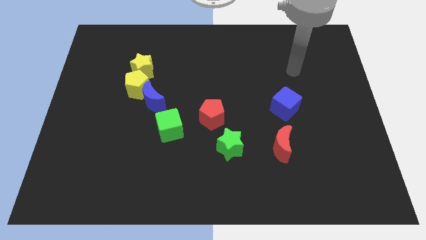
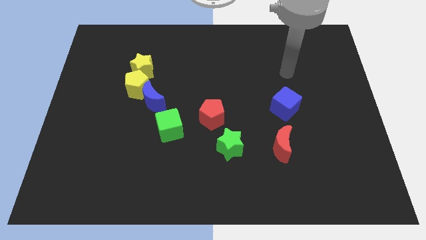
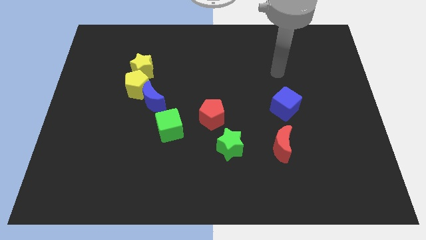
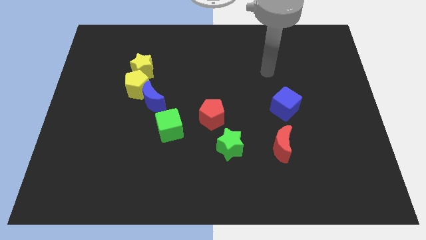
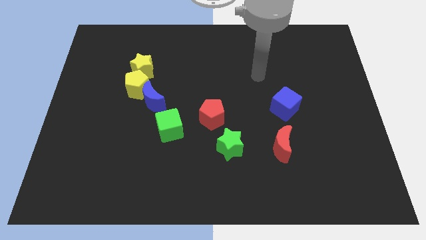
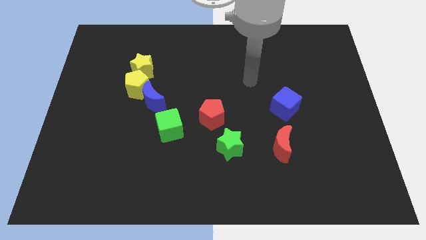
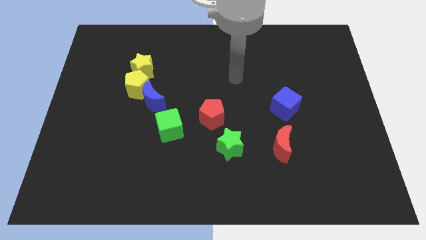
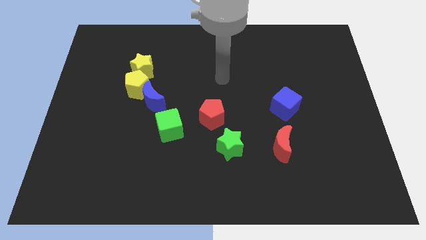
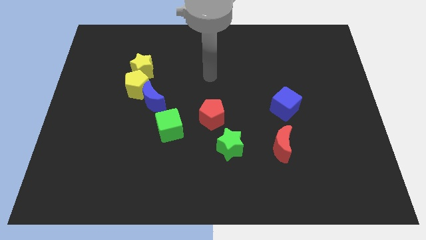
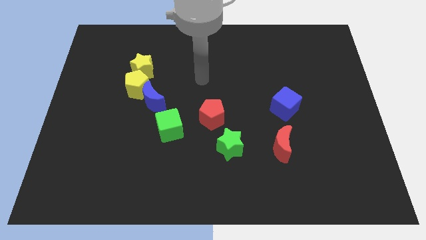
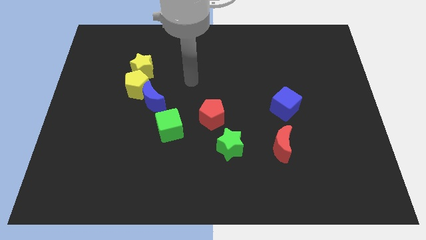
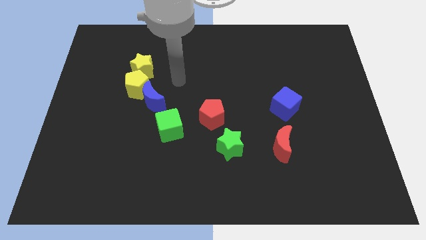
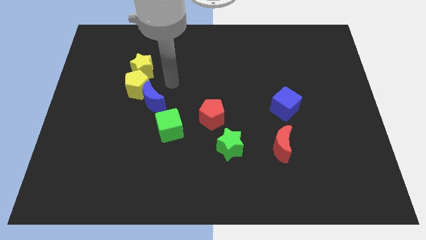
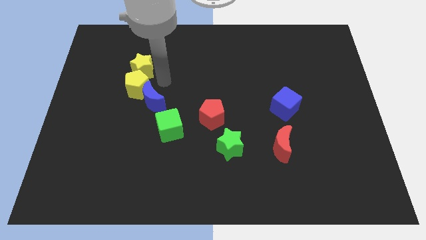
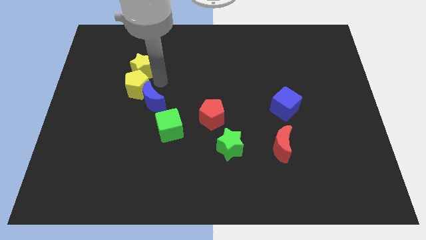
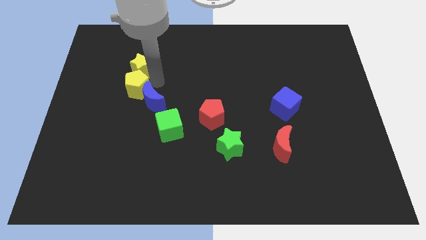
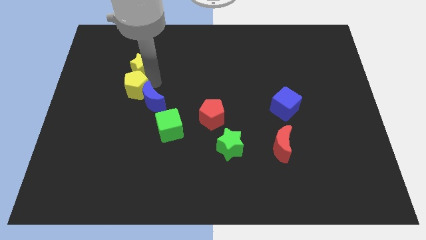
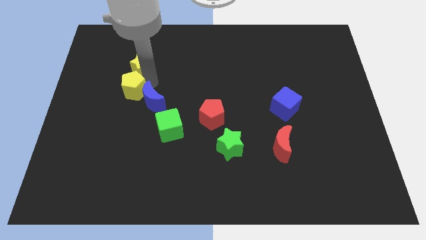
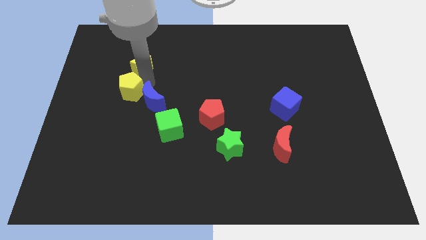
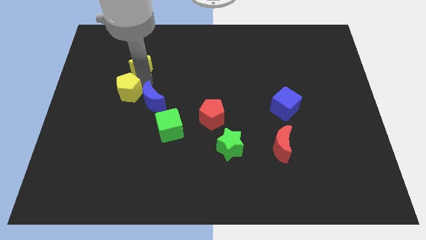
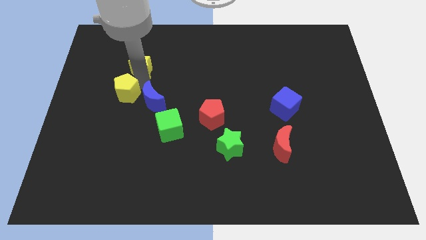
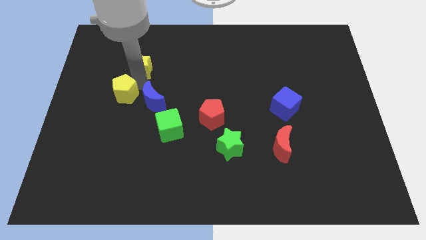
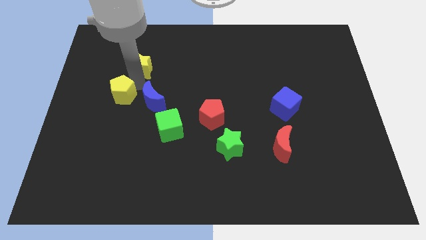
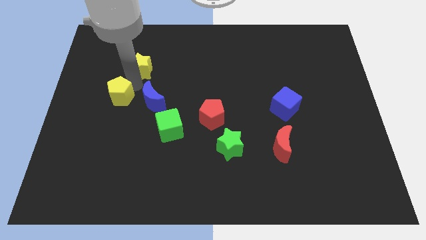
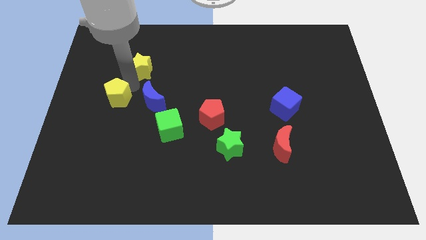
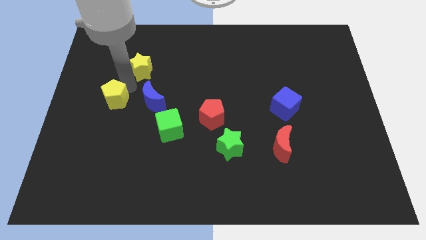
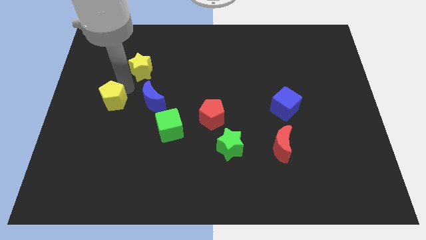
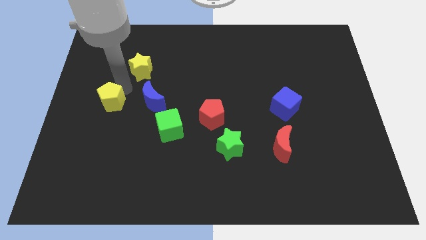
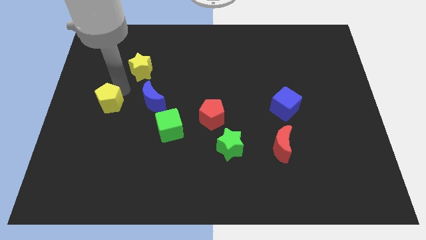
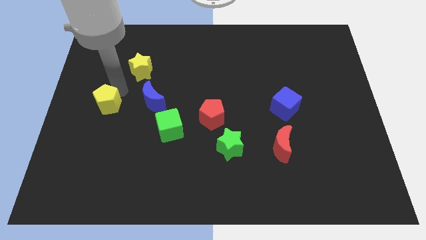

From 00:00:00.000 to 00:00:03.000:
separate the yellow pentagon from the blue moon and yellow star

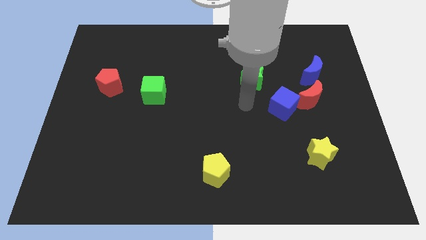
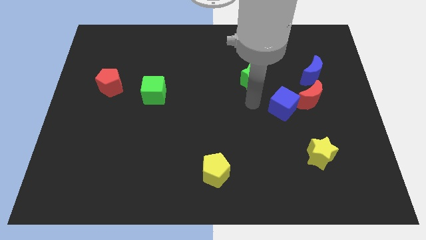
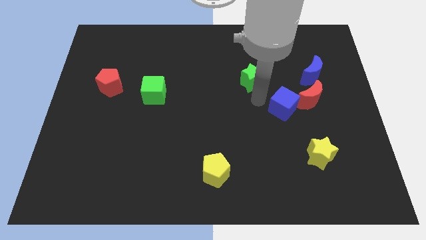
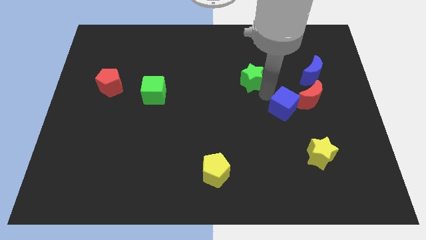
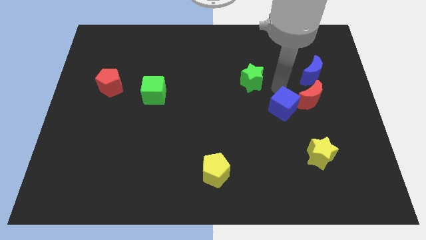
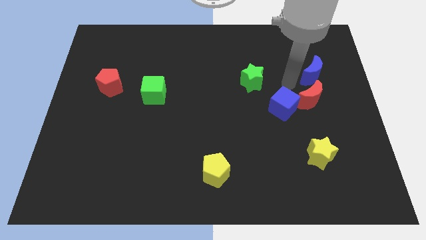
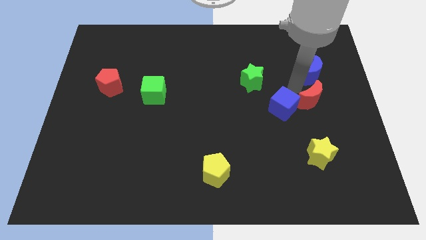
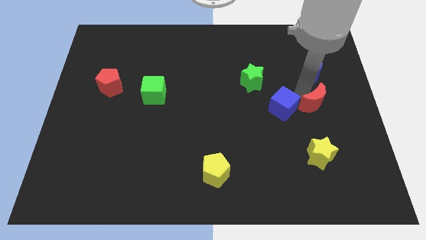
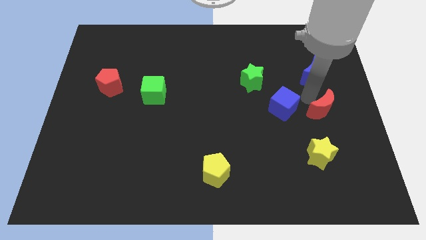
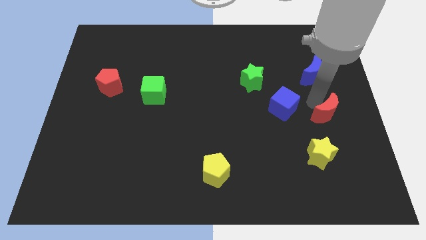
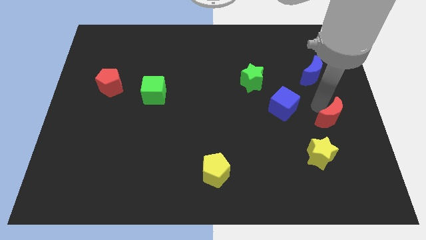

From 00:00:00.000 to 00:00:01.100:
separate the red moon from the blue cube and blue moon

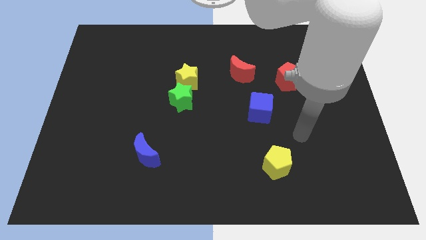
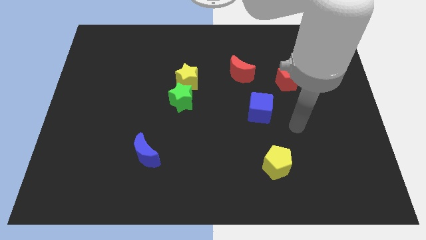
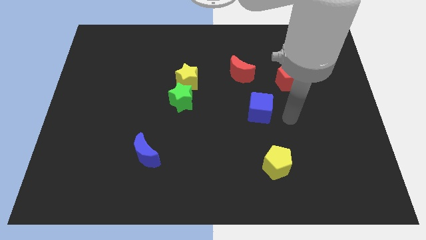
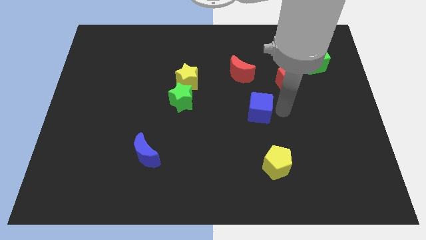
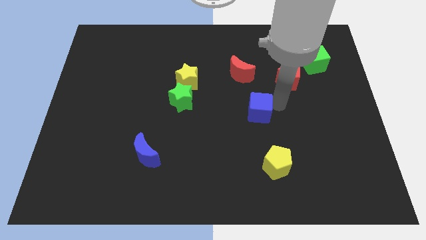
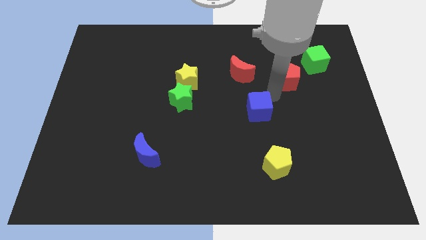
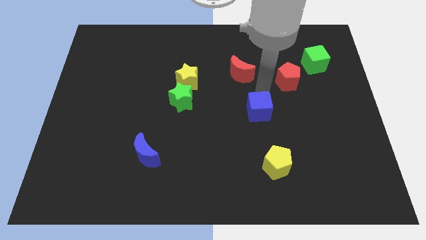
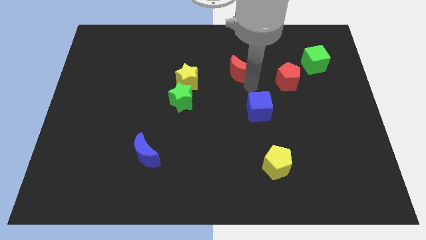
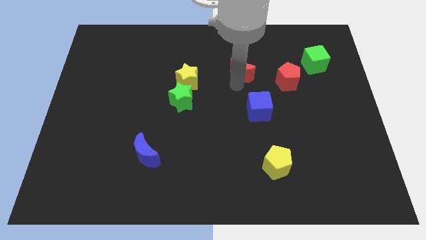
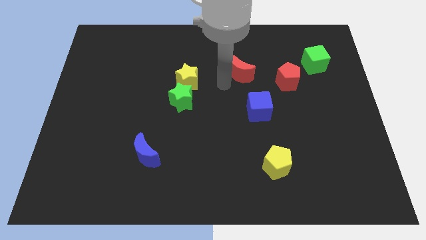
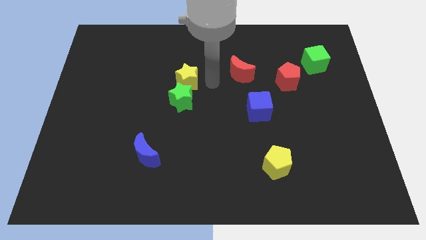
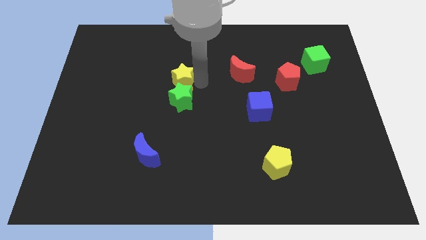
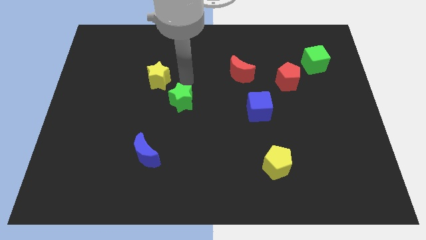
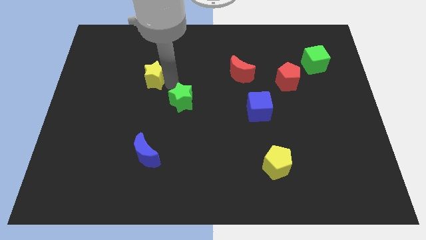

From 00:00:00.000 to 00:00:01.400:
move the green star away from the yellow star

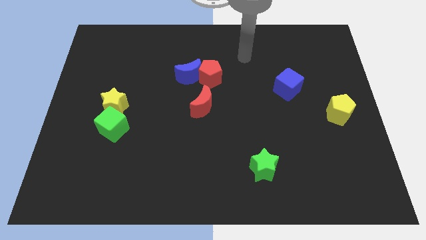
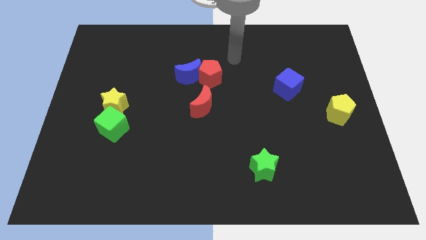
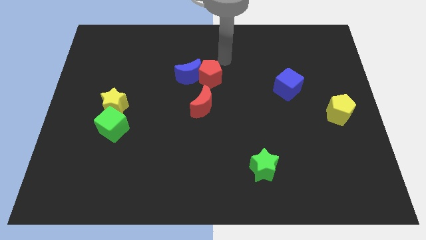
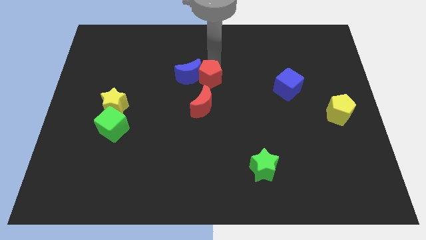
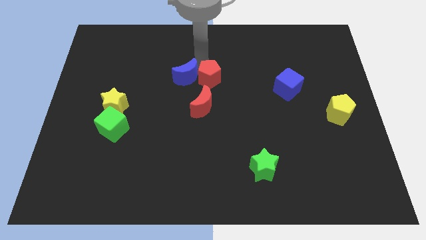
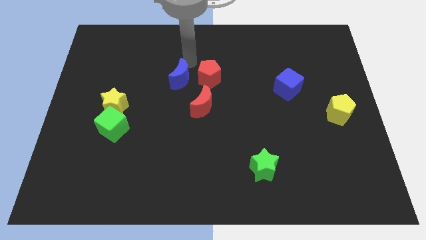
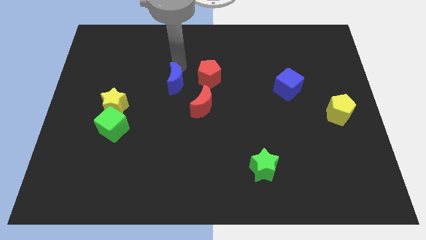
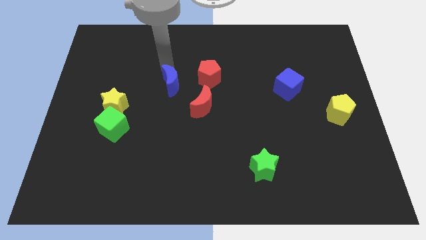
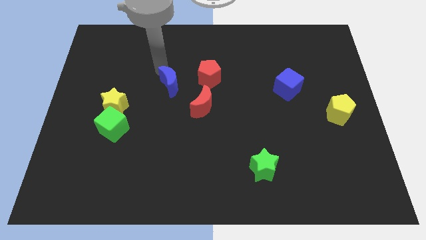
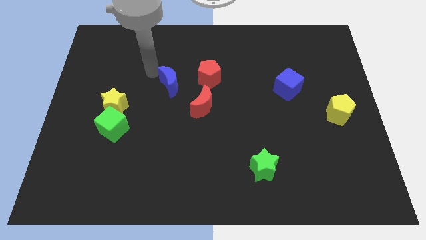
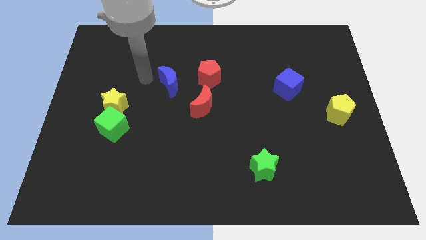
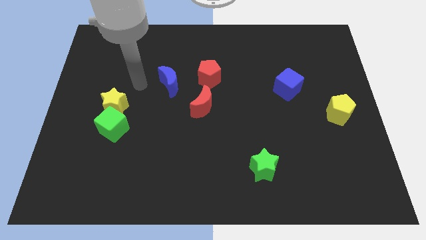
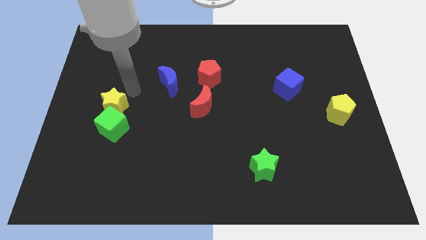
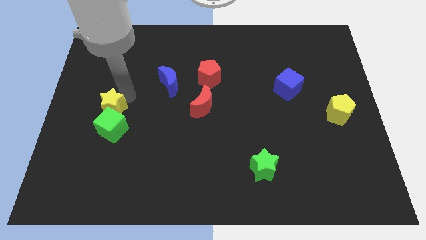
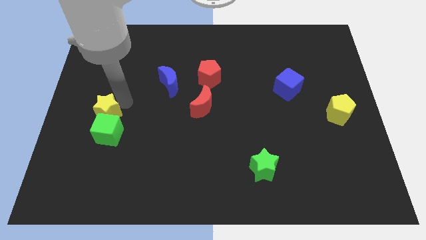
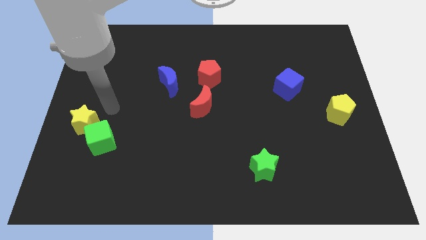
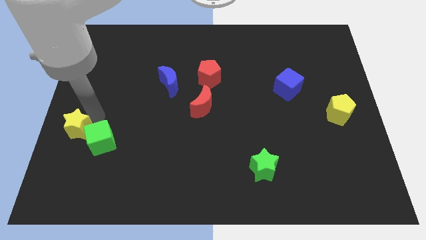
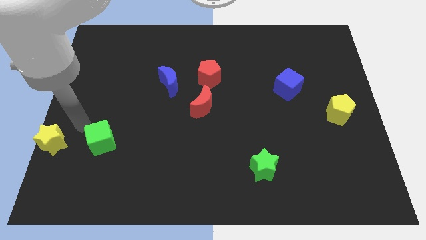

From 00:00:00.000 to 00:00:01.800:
separate the green cube from the yellow star

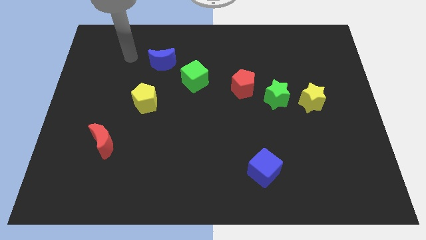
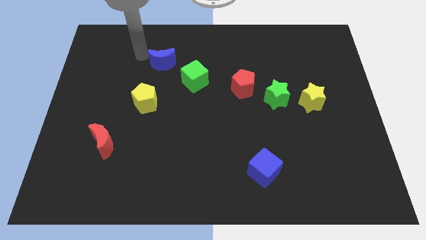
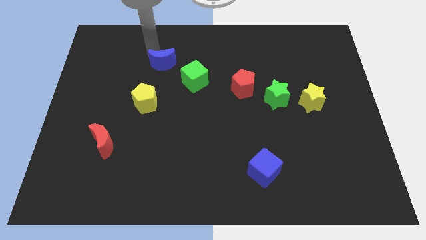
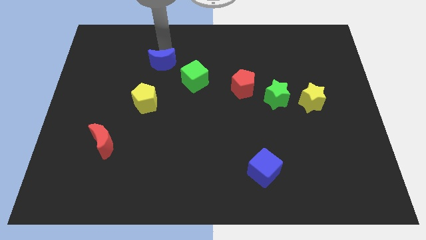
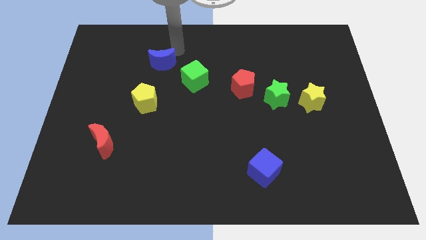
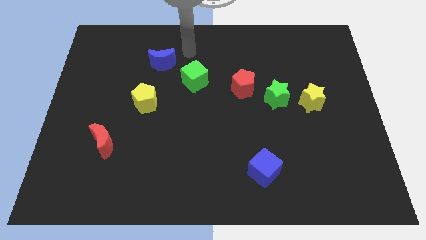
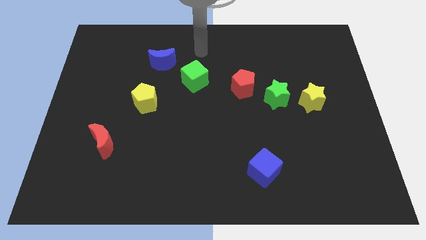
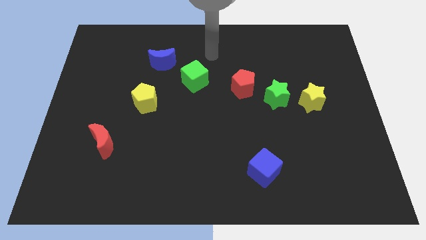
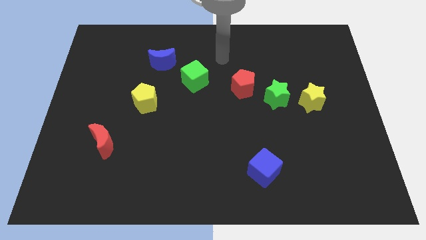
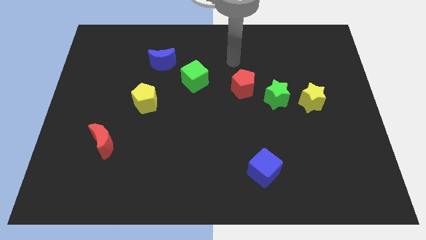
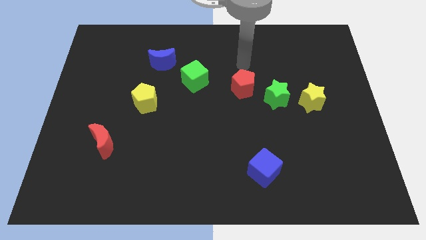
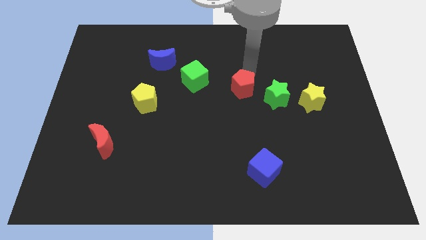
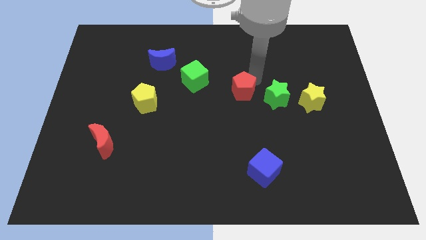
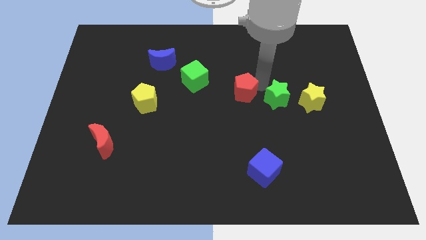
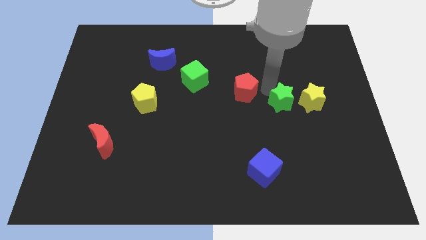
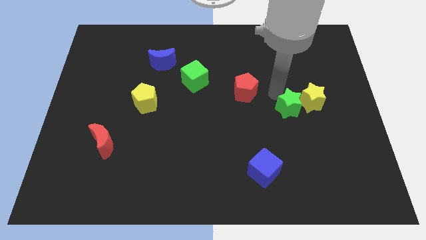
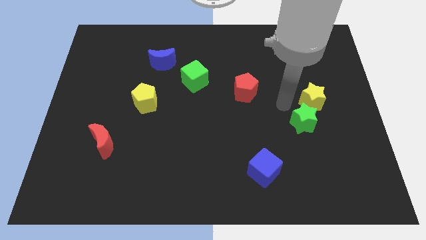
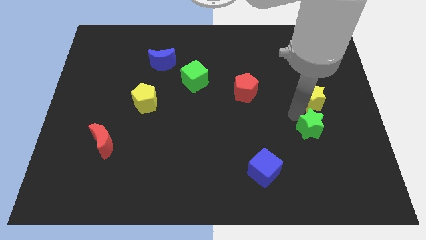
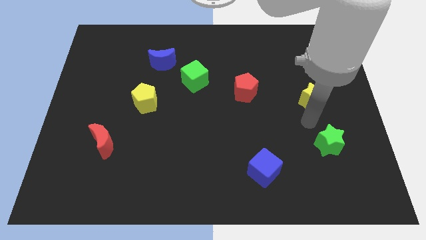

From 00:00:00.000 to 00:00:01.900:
separate the yellow star from the green star
